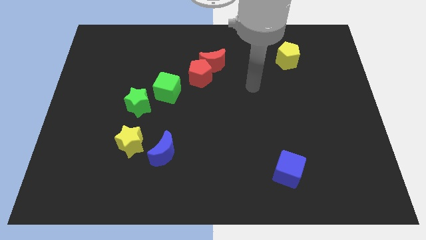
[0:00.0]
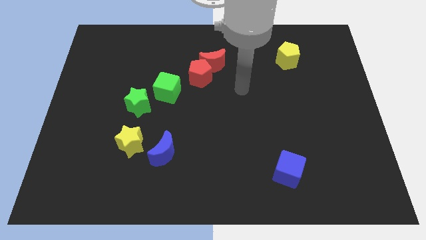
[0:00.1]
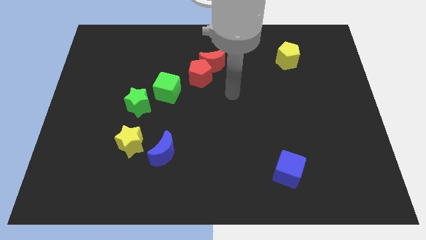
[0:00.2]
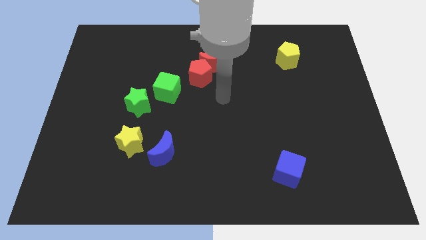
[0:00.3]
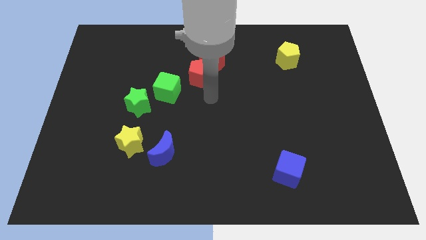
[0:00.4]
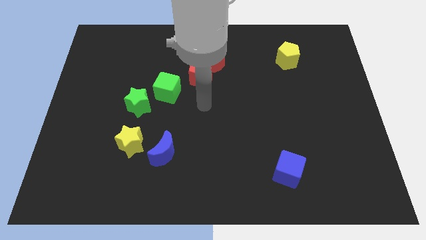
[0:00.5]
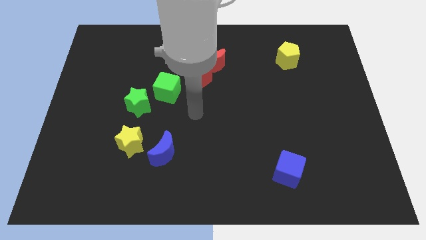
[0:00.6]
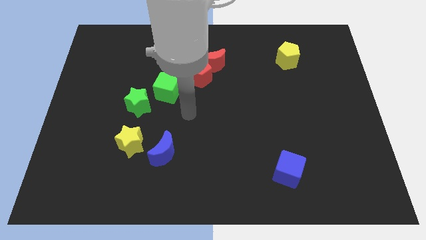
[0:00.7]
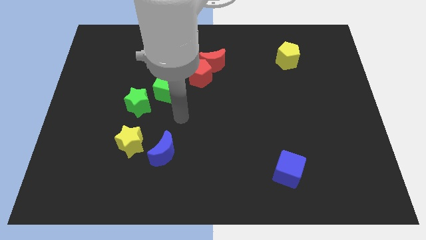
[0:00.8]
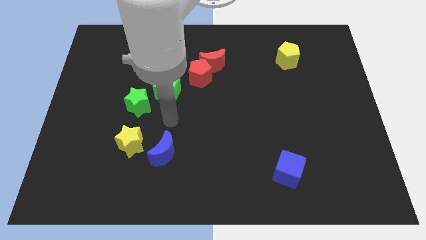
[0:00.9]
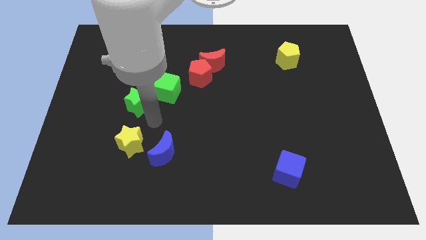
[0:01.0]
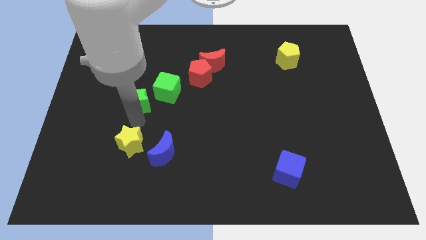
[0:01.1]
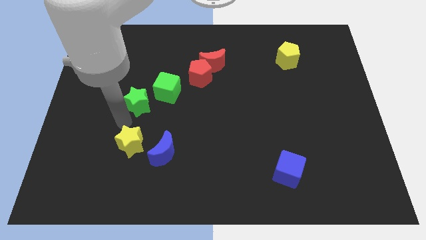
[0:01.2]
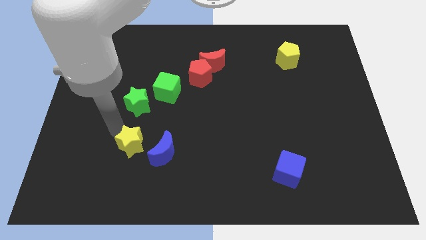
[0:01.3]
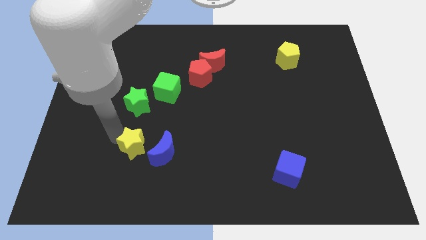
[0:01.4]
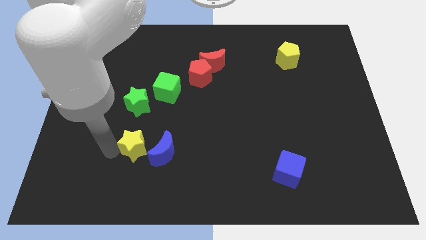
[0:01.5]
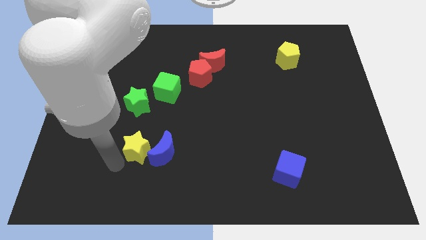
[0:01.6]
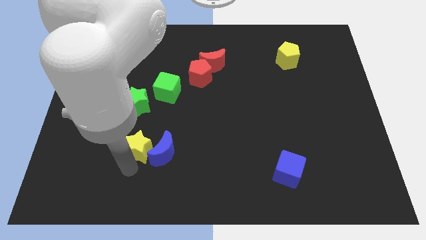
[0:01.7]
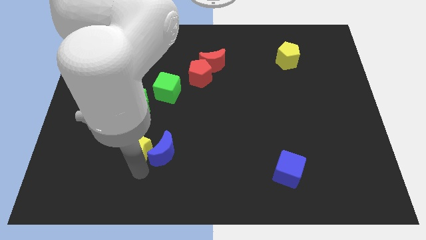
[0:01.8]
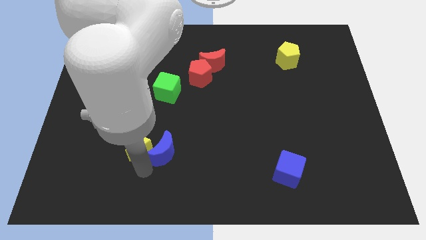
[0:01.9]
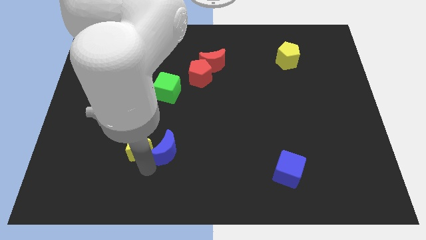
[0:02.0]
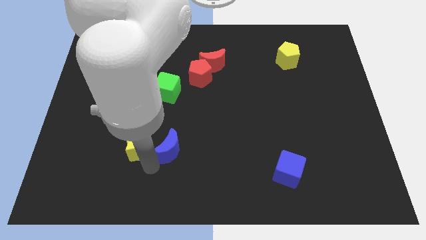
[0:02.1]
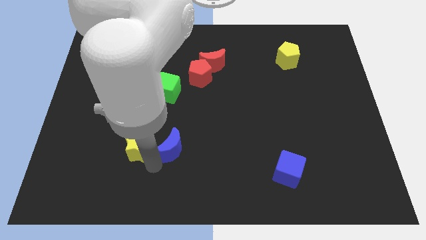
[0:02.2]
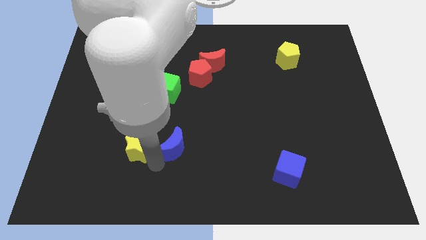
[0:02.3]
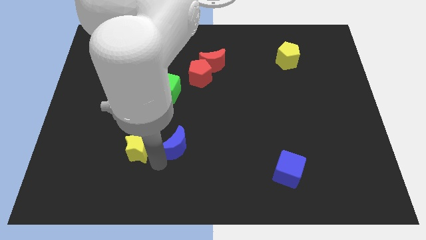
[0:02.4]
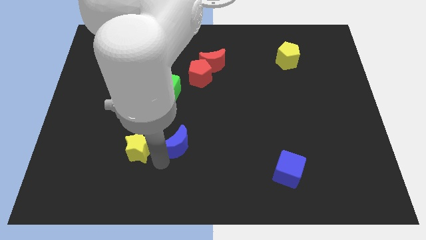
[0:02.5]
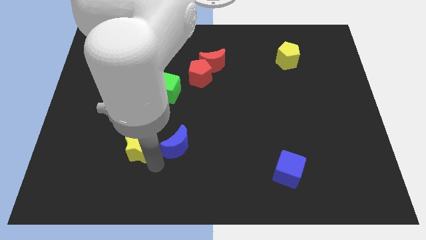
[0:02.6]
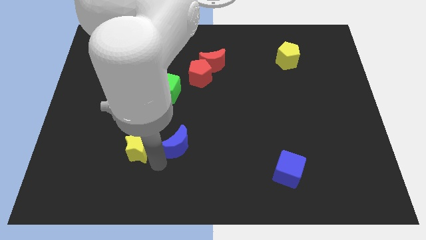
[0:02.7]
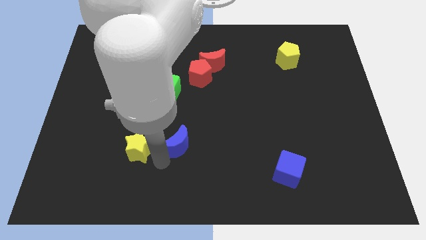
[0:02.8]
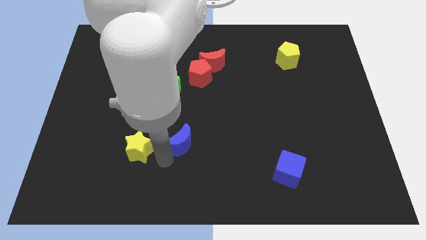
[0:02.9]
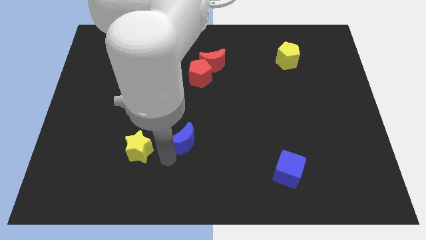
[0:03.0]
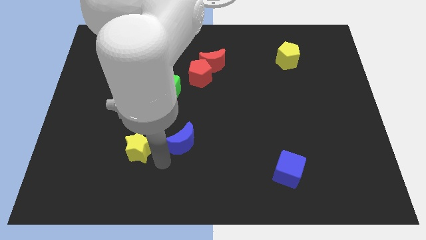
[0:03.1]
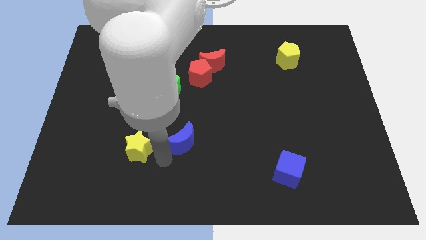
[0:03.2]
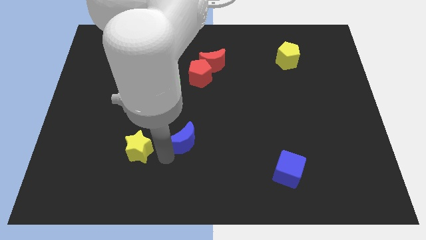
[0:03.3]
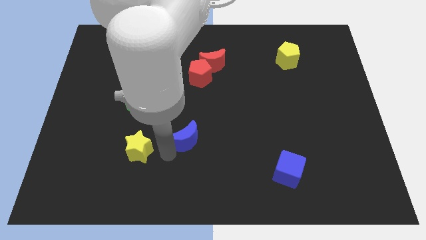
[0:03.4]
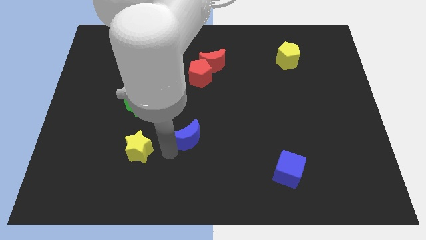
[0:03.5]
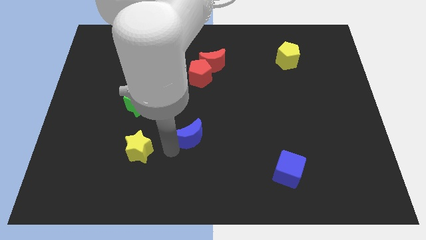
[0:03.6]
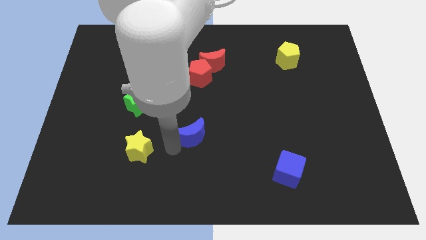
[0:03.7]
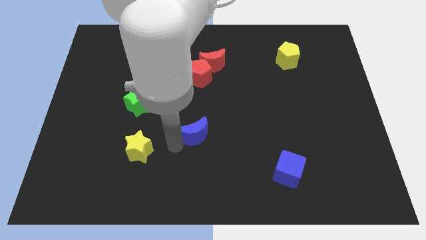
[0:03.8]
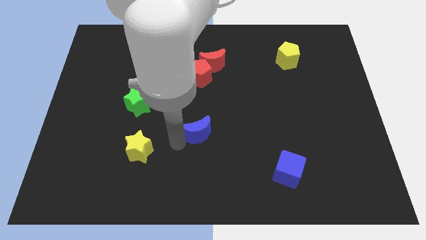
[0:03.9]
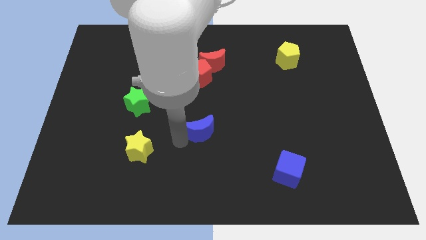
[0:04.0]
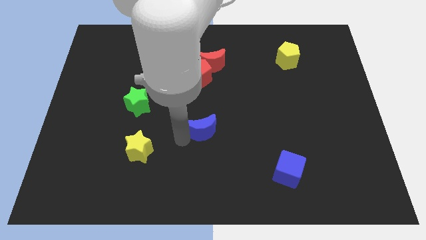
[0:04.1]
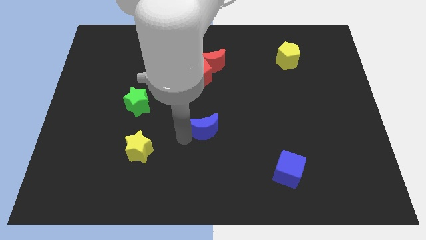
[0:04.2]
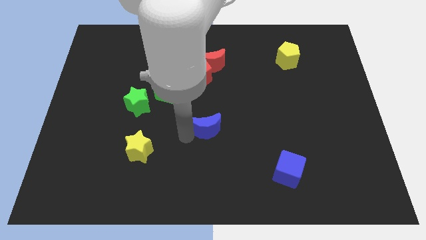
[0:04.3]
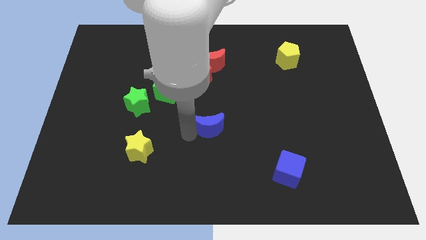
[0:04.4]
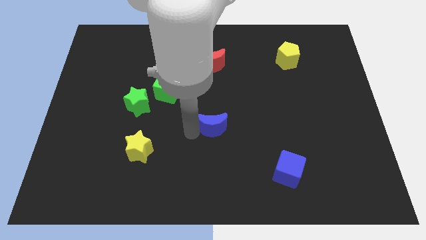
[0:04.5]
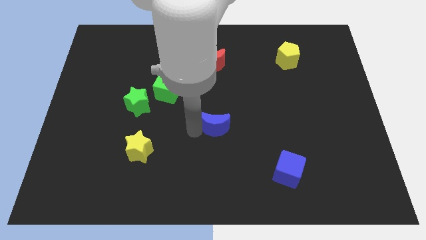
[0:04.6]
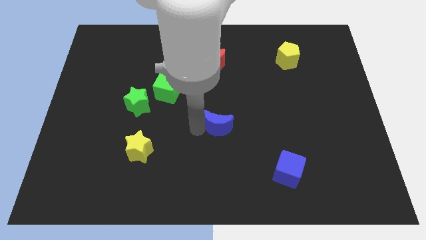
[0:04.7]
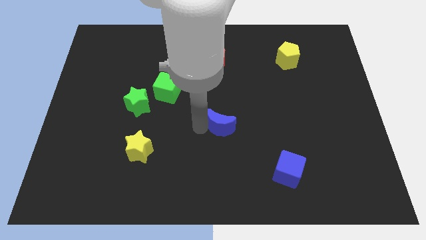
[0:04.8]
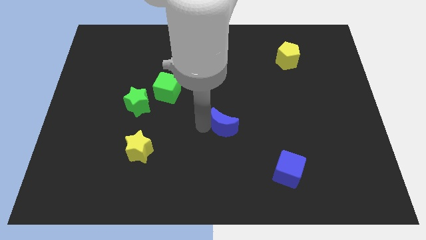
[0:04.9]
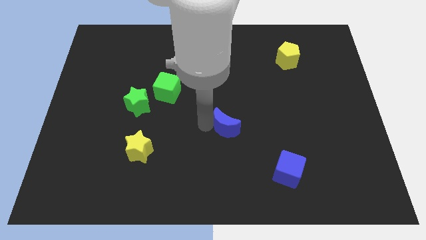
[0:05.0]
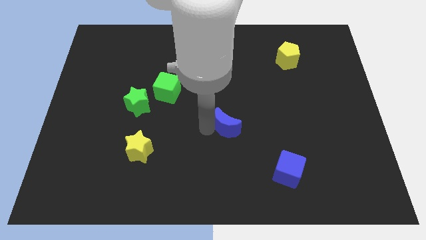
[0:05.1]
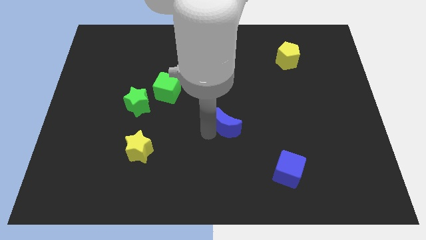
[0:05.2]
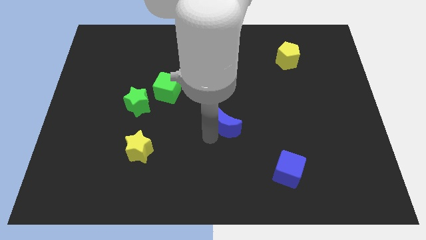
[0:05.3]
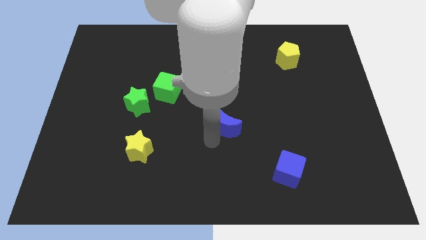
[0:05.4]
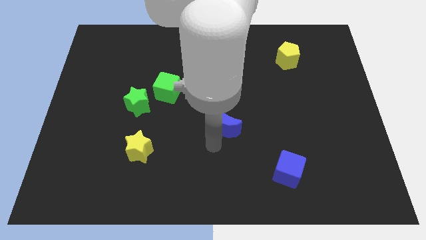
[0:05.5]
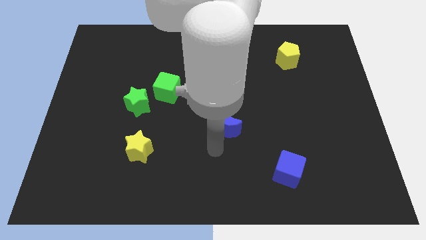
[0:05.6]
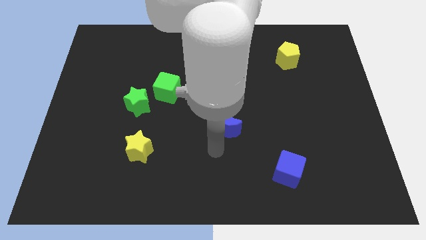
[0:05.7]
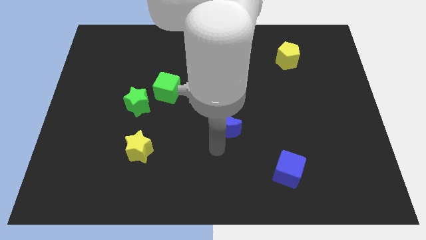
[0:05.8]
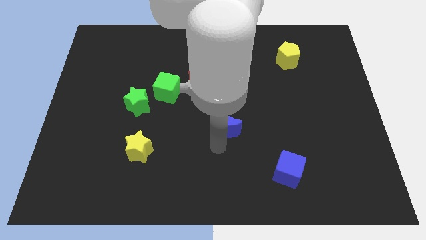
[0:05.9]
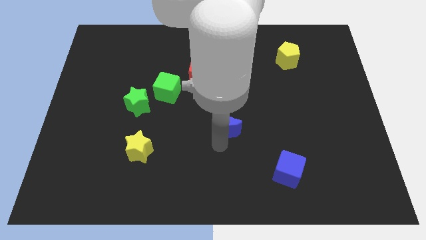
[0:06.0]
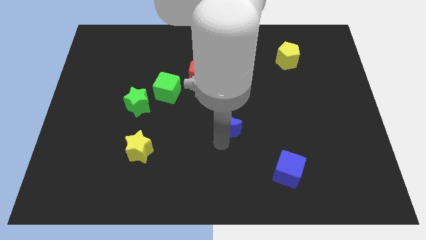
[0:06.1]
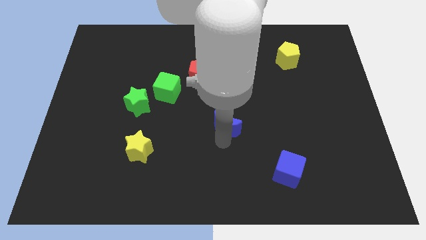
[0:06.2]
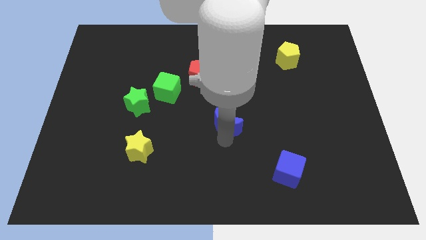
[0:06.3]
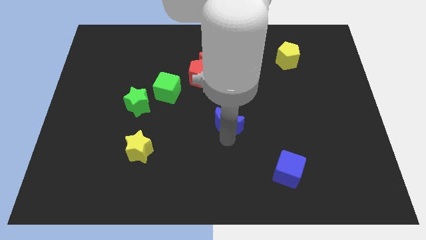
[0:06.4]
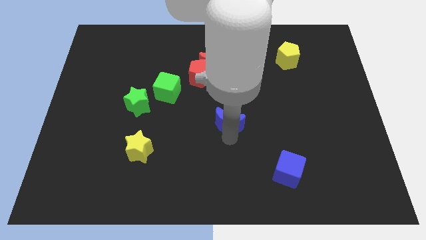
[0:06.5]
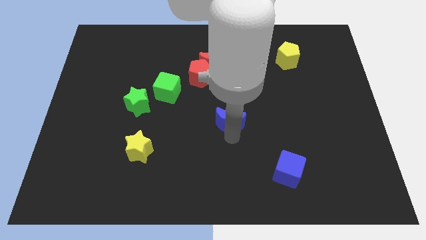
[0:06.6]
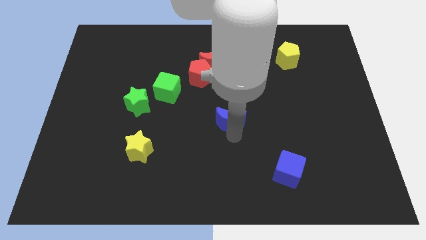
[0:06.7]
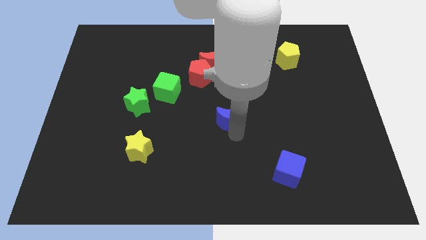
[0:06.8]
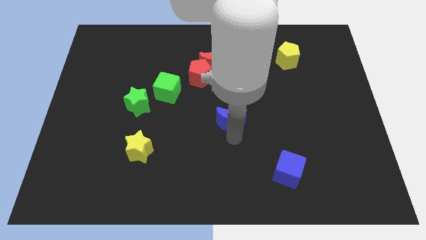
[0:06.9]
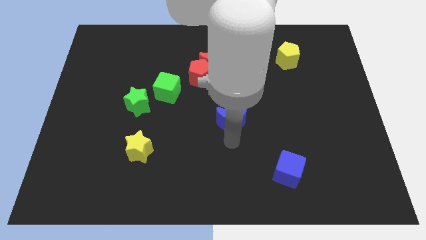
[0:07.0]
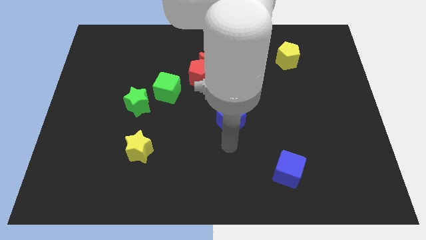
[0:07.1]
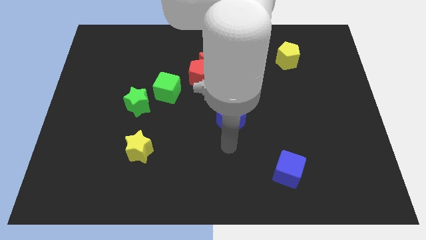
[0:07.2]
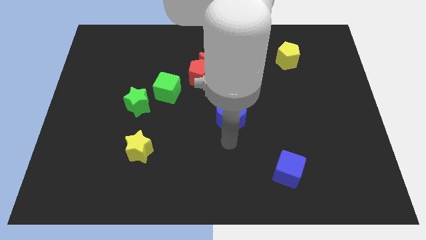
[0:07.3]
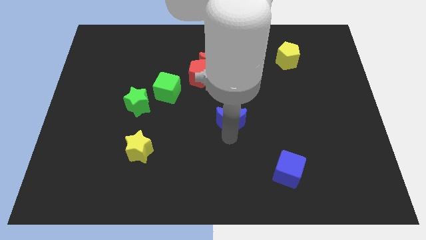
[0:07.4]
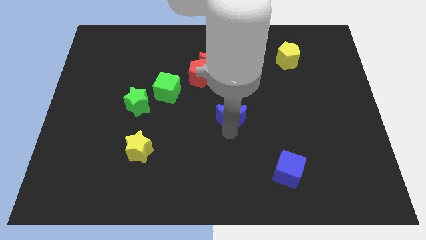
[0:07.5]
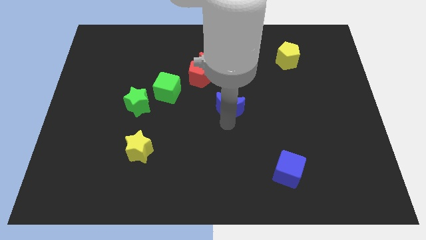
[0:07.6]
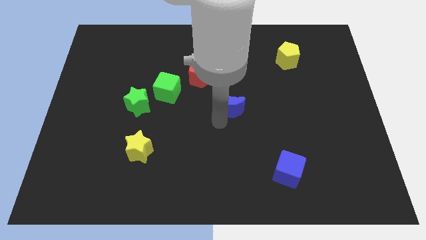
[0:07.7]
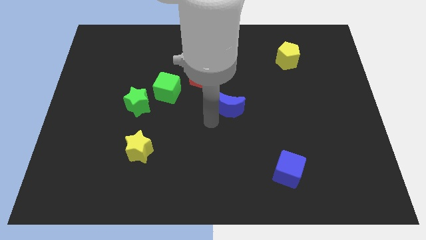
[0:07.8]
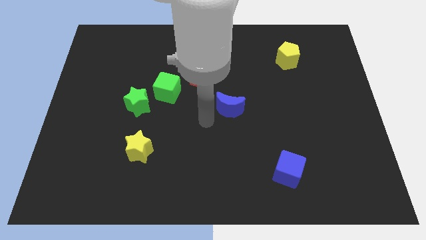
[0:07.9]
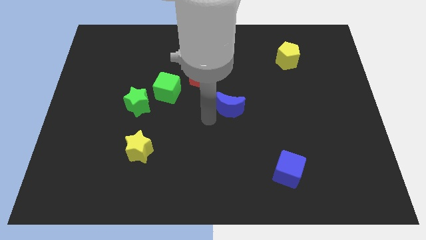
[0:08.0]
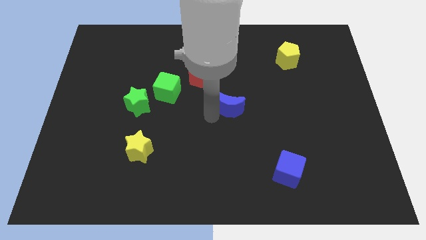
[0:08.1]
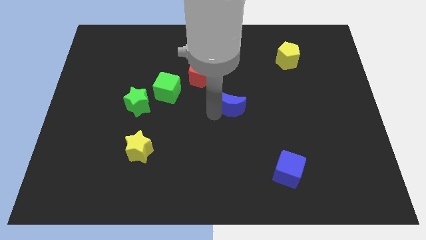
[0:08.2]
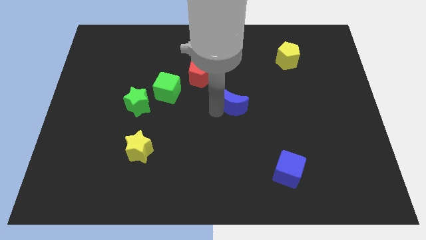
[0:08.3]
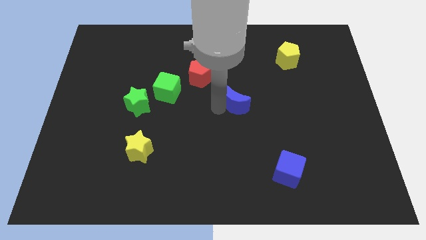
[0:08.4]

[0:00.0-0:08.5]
push the blue moon up and then to the right
